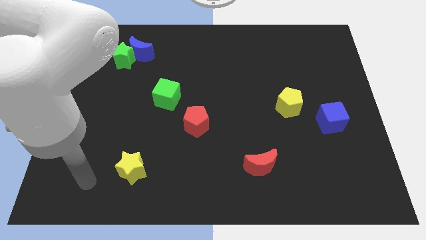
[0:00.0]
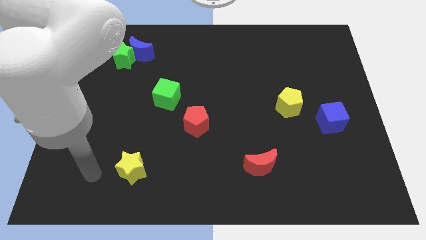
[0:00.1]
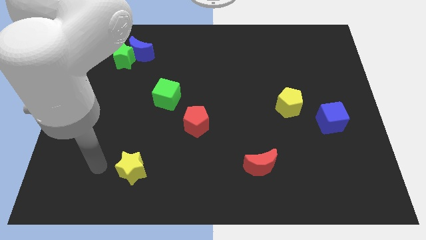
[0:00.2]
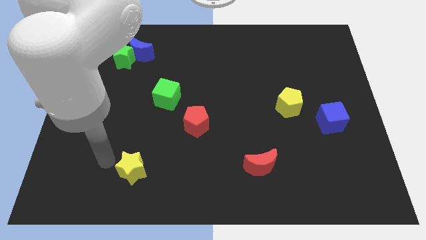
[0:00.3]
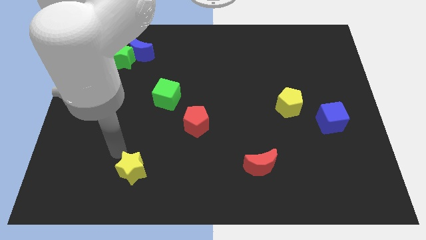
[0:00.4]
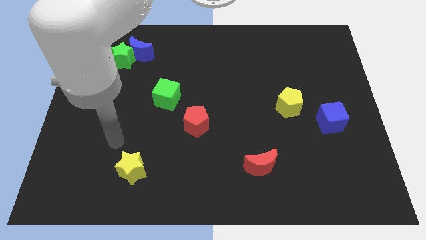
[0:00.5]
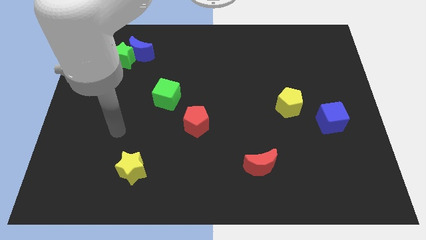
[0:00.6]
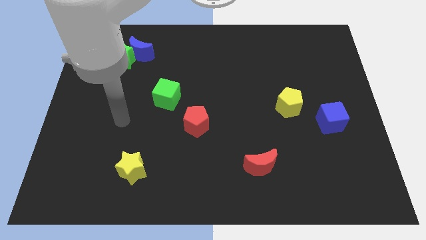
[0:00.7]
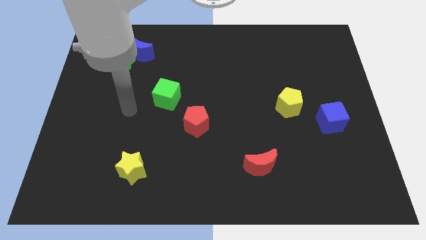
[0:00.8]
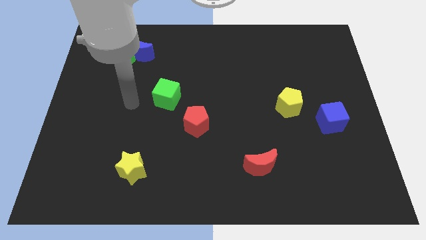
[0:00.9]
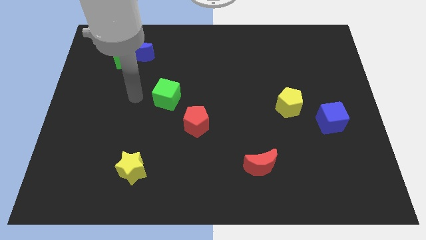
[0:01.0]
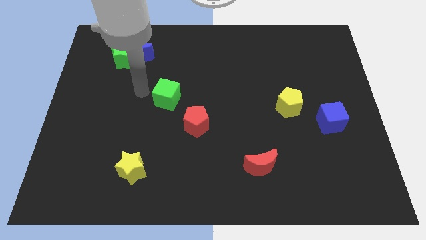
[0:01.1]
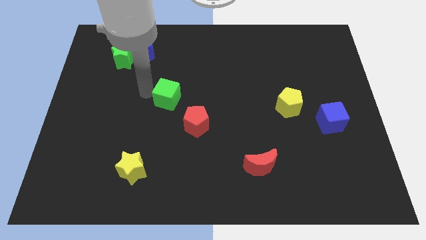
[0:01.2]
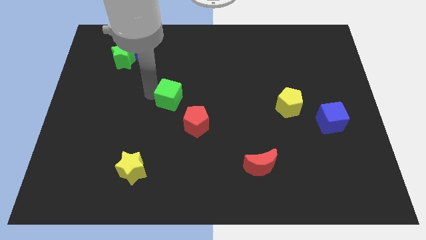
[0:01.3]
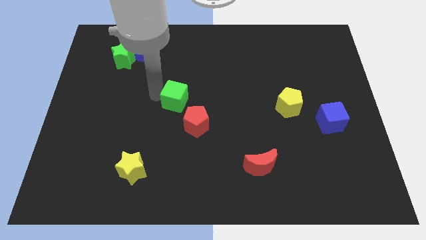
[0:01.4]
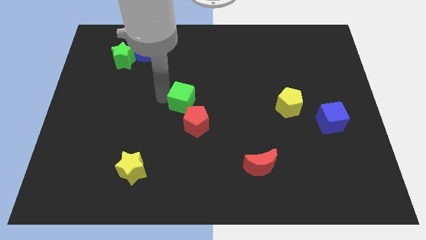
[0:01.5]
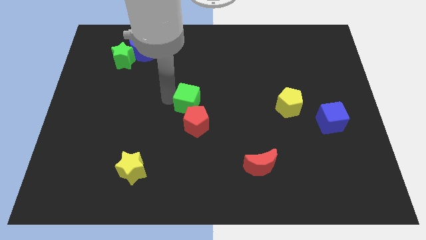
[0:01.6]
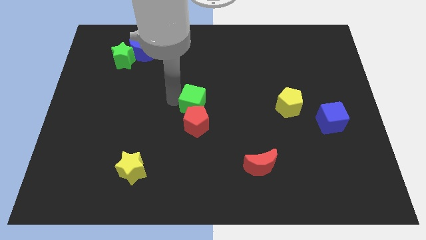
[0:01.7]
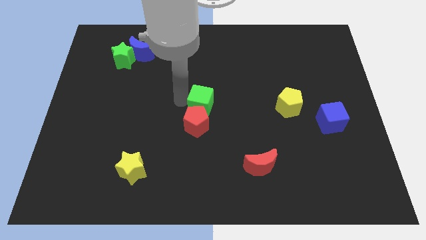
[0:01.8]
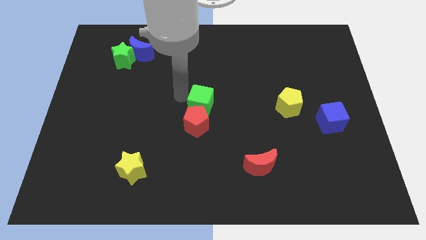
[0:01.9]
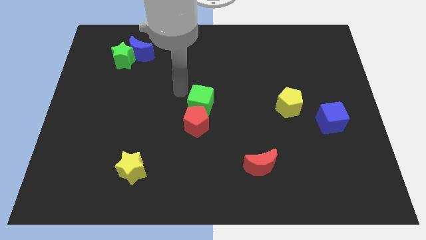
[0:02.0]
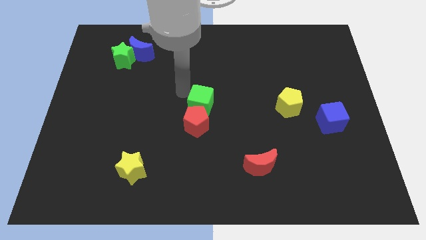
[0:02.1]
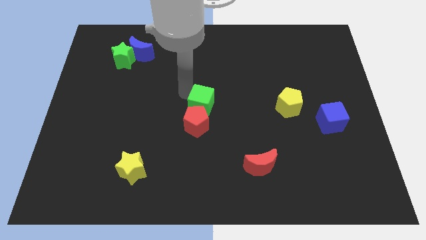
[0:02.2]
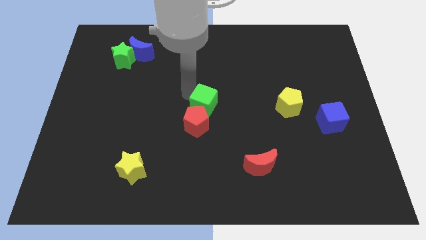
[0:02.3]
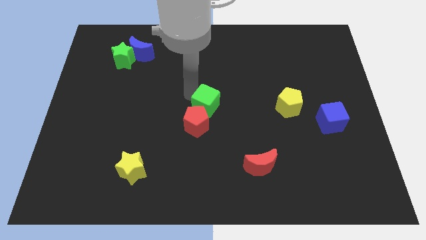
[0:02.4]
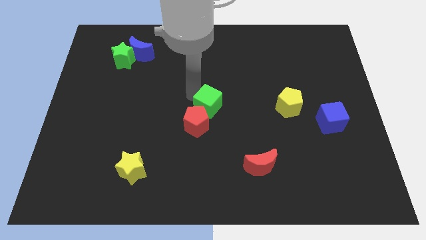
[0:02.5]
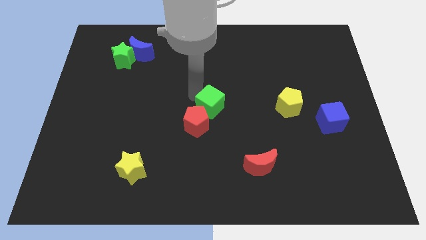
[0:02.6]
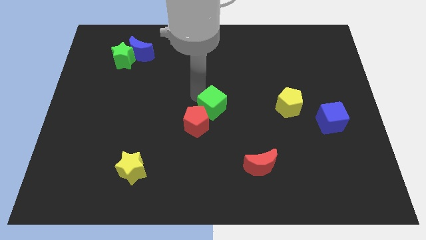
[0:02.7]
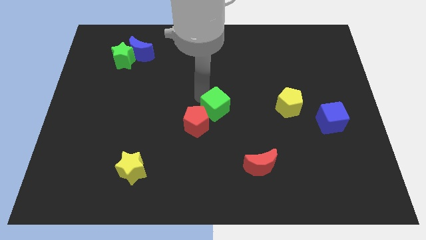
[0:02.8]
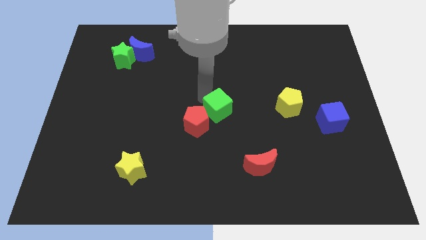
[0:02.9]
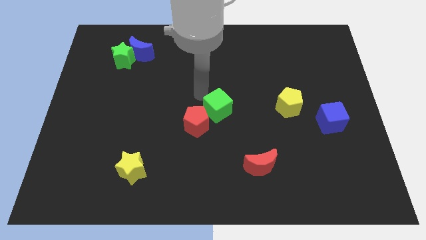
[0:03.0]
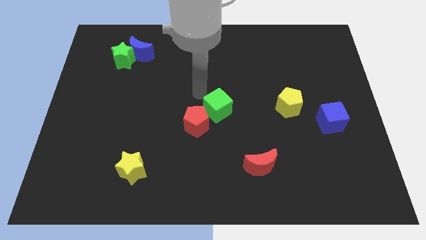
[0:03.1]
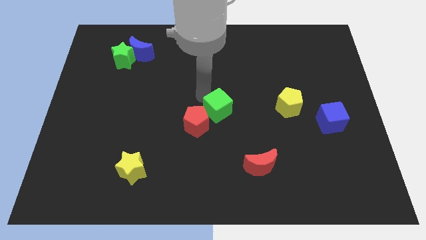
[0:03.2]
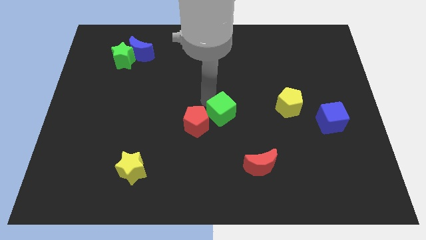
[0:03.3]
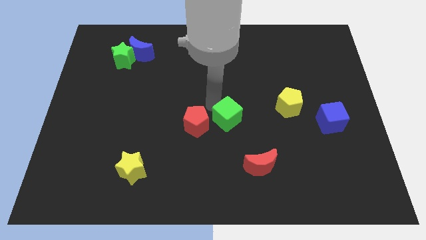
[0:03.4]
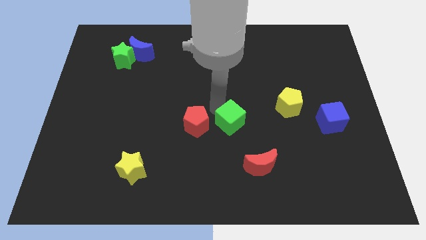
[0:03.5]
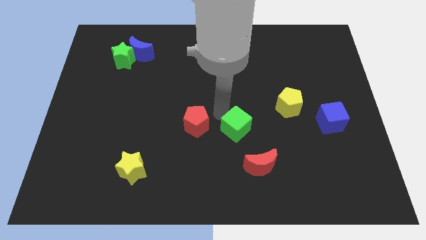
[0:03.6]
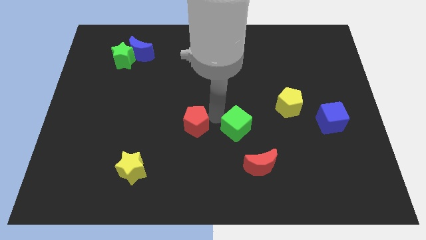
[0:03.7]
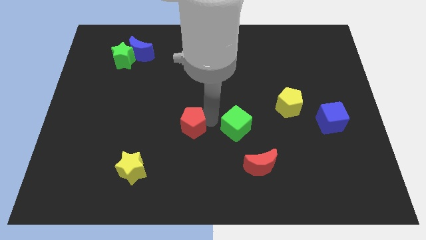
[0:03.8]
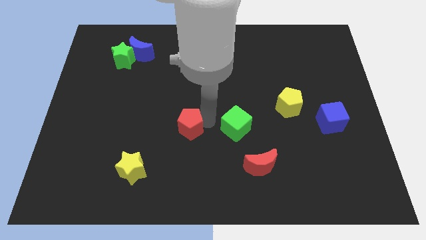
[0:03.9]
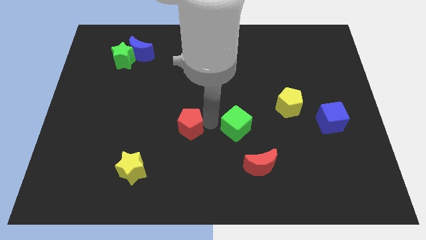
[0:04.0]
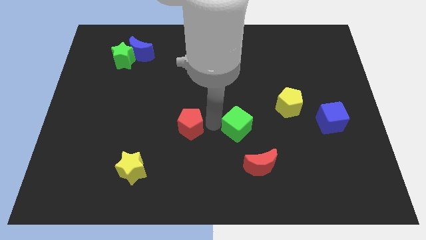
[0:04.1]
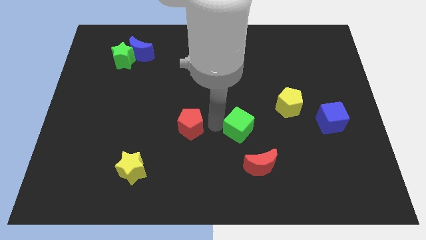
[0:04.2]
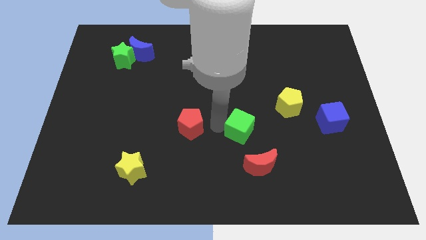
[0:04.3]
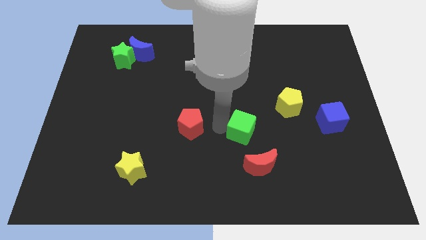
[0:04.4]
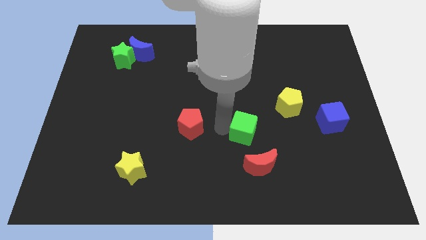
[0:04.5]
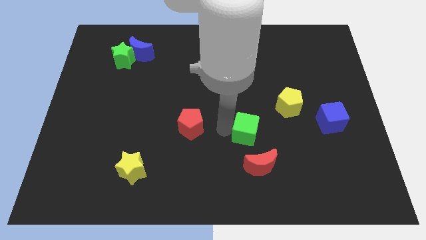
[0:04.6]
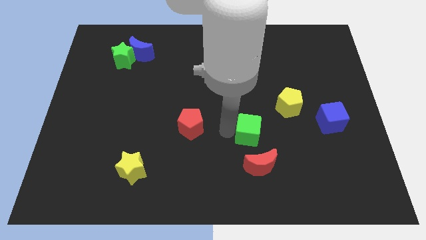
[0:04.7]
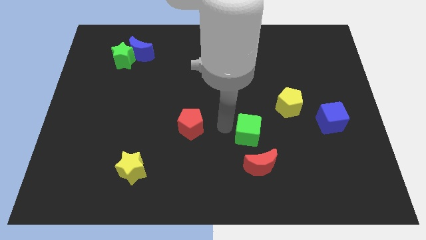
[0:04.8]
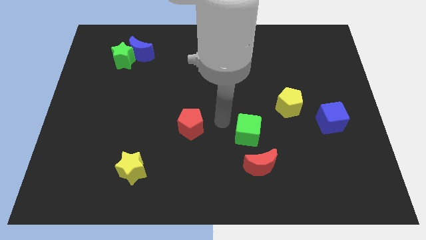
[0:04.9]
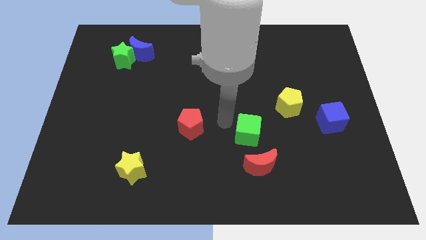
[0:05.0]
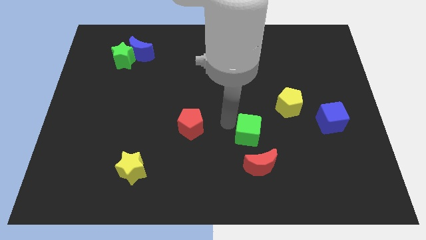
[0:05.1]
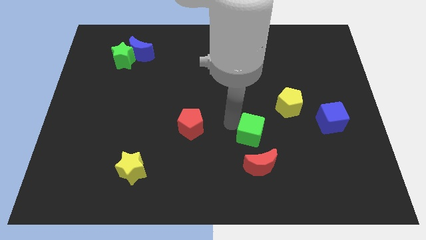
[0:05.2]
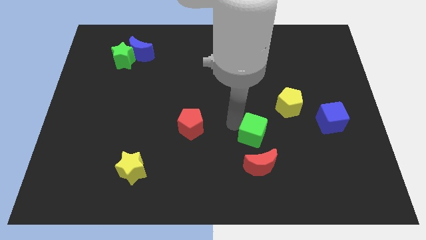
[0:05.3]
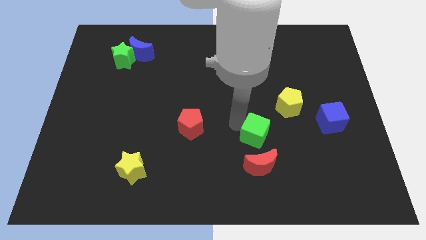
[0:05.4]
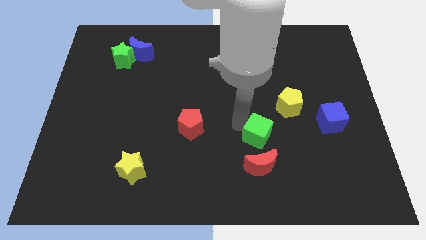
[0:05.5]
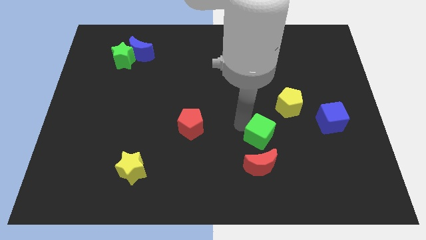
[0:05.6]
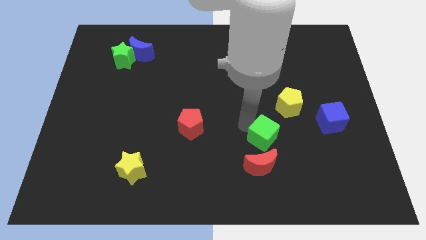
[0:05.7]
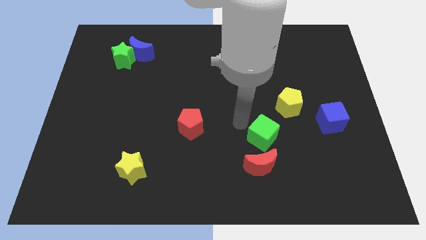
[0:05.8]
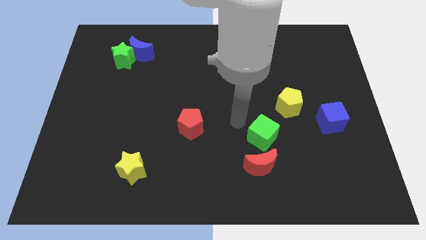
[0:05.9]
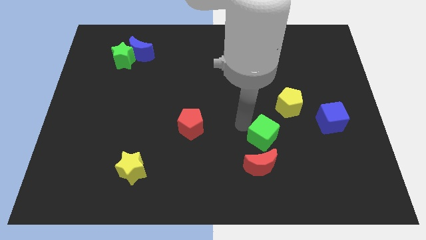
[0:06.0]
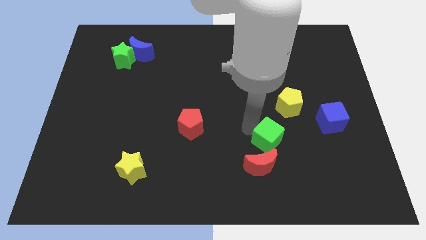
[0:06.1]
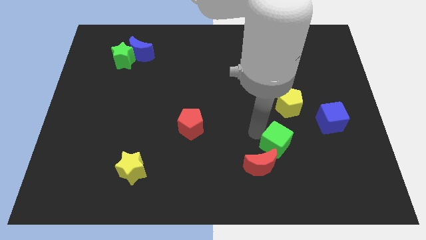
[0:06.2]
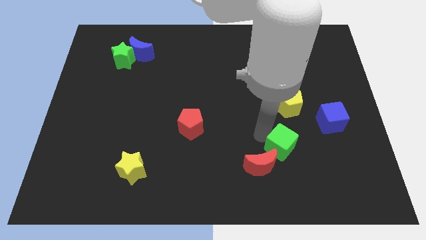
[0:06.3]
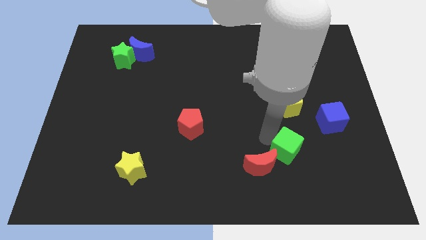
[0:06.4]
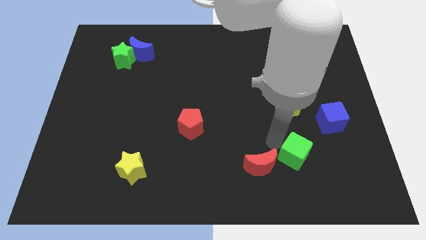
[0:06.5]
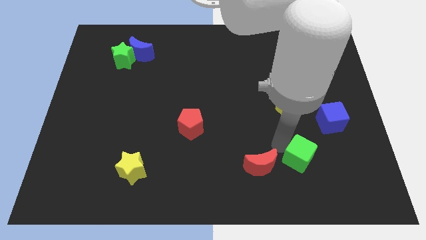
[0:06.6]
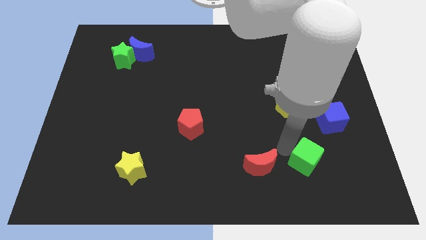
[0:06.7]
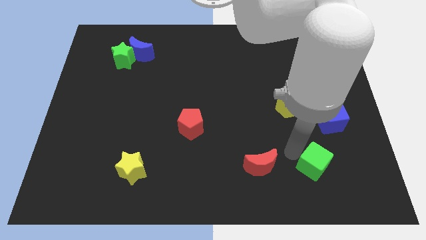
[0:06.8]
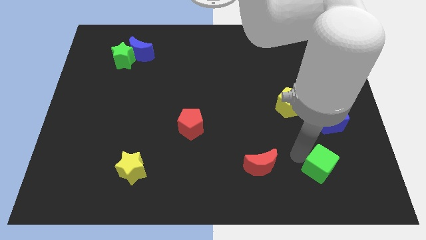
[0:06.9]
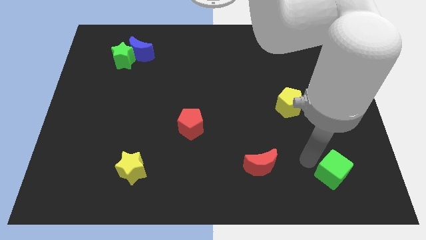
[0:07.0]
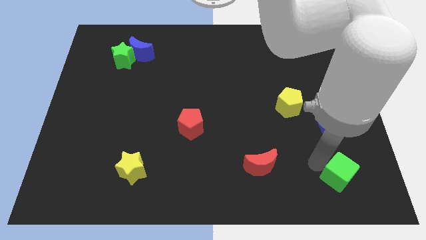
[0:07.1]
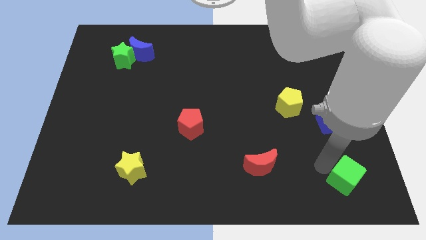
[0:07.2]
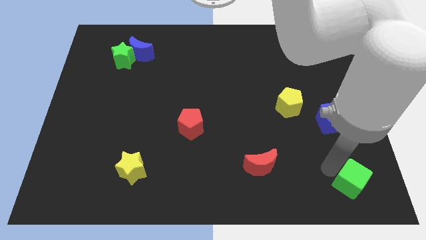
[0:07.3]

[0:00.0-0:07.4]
move the green cube to the lower right corner
